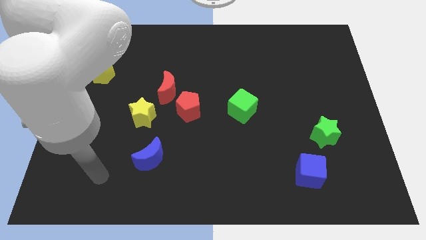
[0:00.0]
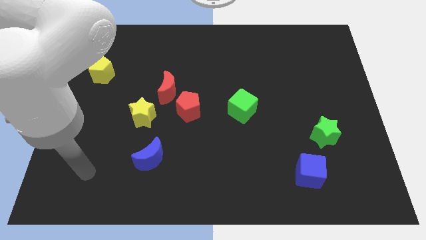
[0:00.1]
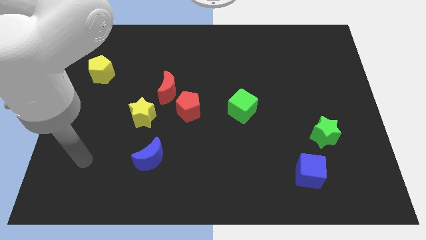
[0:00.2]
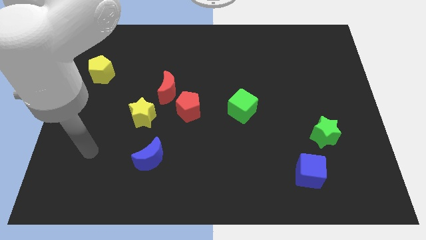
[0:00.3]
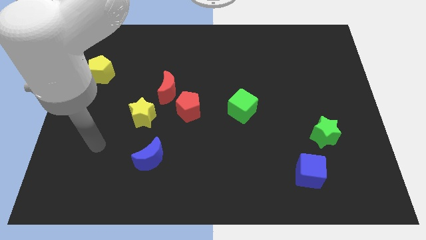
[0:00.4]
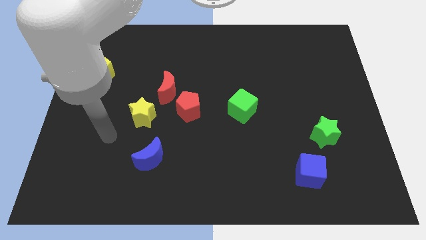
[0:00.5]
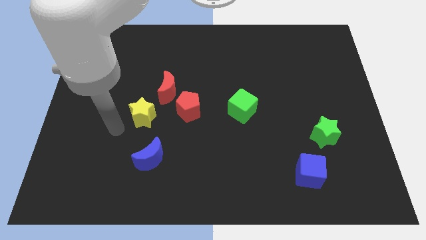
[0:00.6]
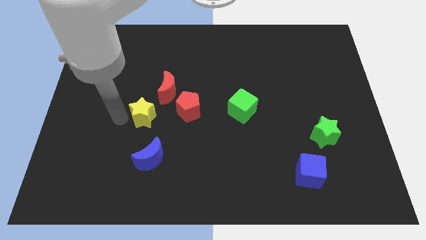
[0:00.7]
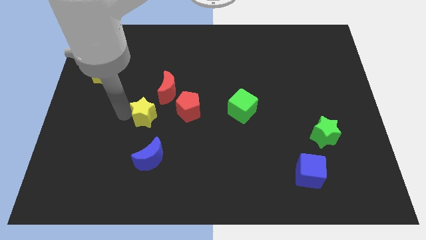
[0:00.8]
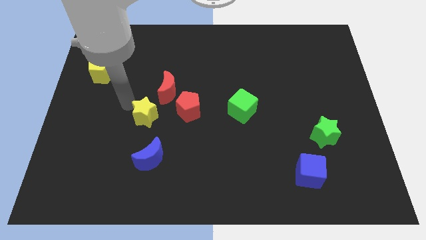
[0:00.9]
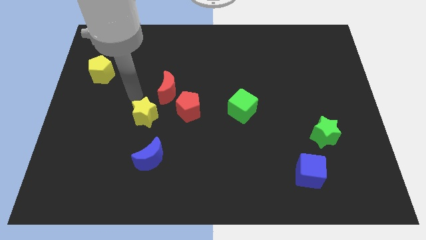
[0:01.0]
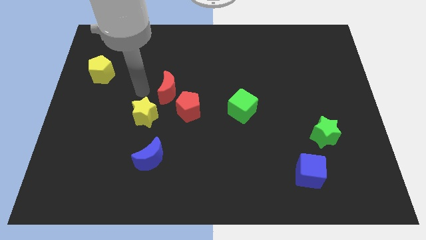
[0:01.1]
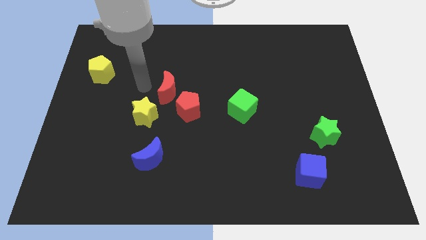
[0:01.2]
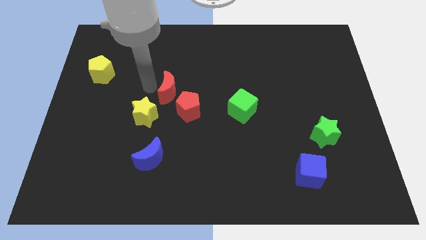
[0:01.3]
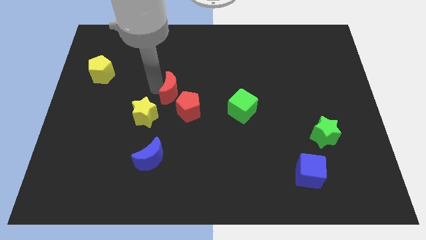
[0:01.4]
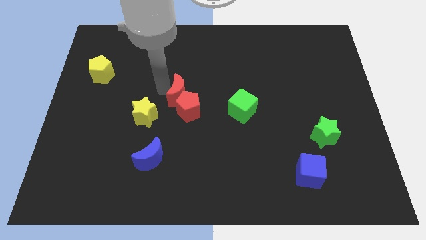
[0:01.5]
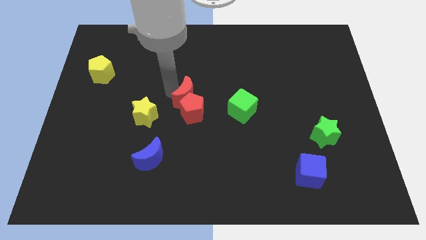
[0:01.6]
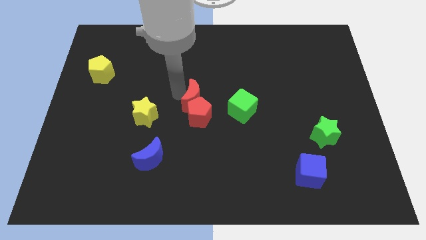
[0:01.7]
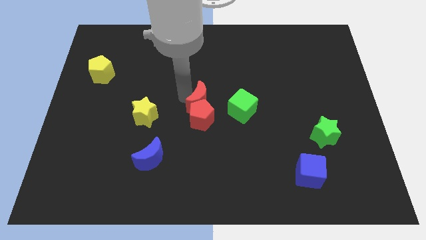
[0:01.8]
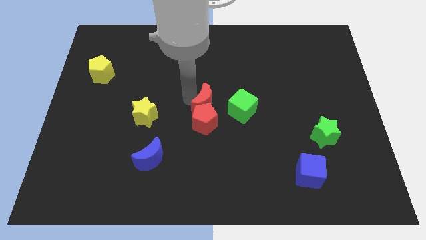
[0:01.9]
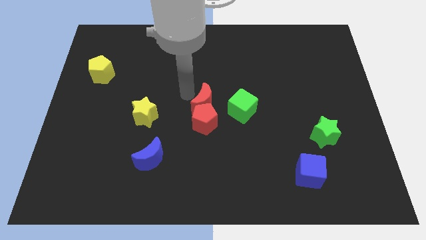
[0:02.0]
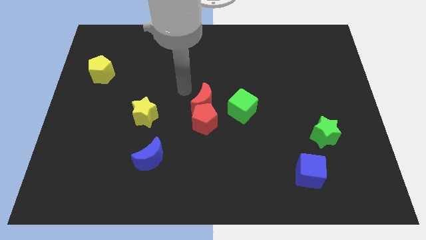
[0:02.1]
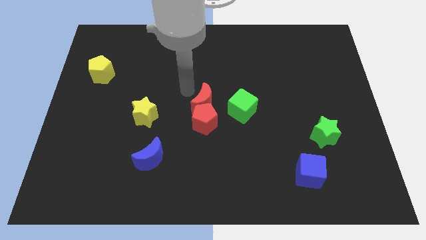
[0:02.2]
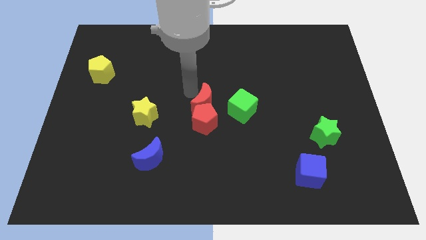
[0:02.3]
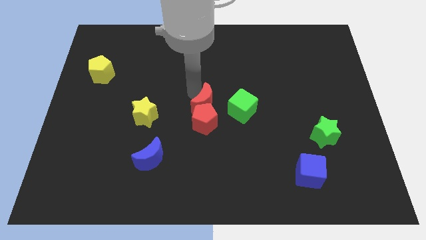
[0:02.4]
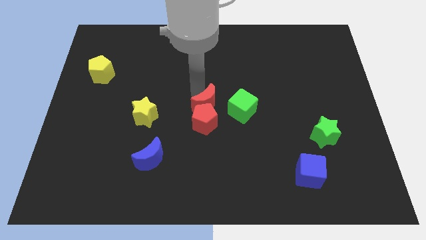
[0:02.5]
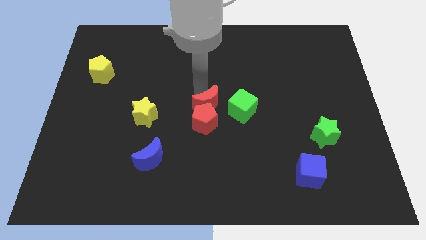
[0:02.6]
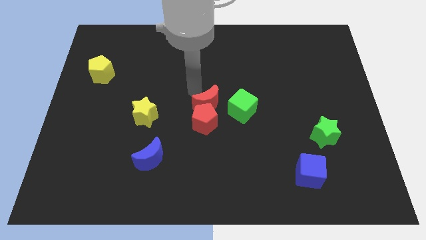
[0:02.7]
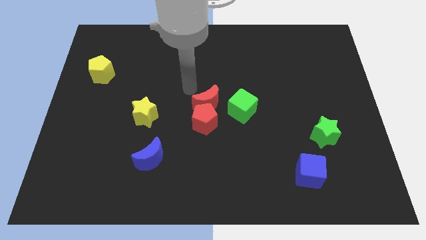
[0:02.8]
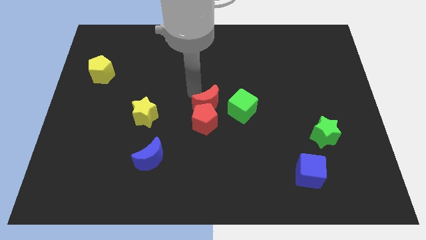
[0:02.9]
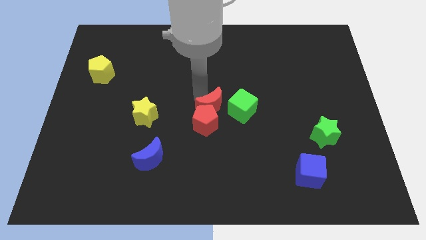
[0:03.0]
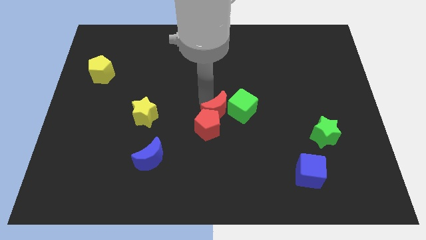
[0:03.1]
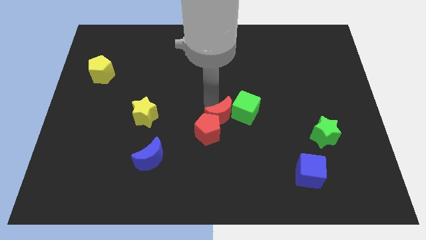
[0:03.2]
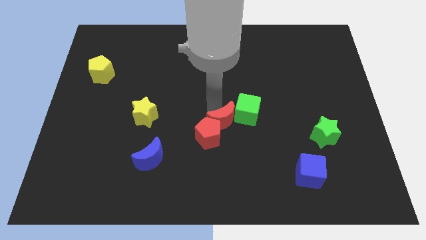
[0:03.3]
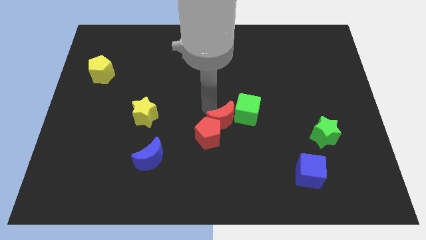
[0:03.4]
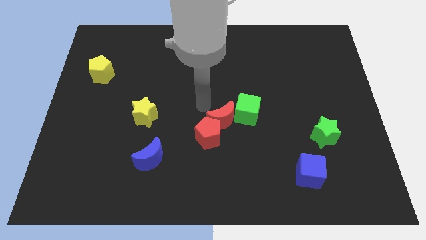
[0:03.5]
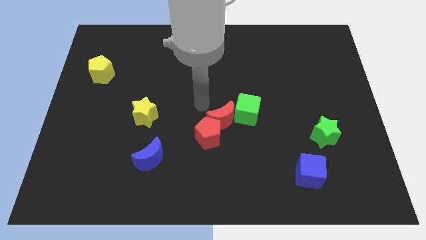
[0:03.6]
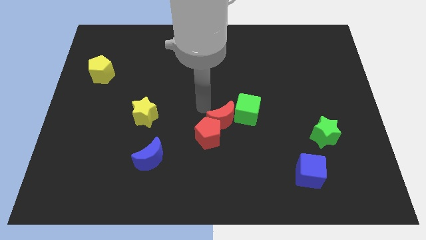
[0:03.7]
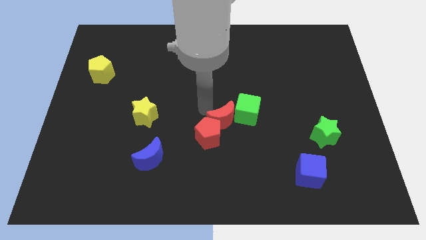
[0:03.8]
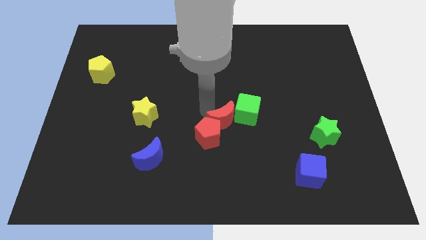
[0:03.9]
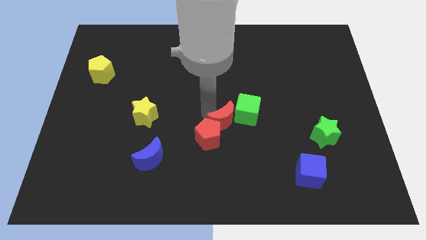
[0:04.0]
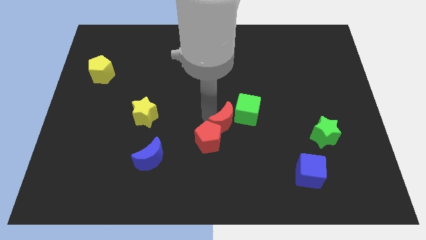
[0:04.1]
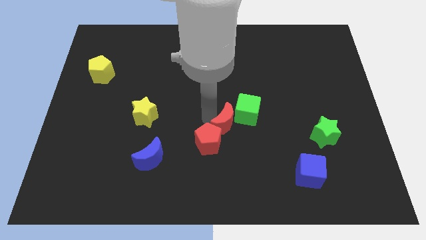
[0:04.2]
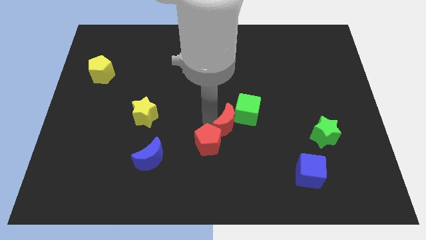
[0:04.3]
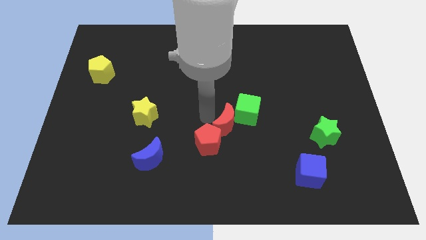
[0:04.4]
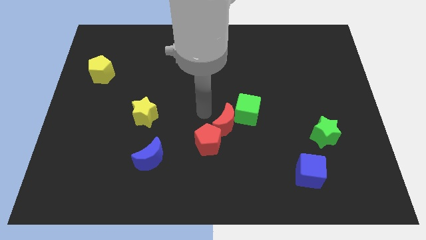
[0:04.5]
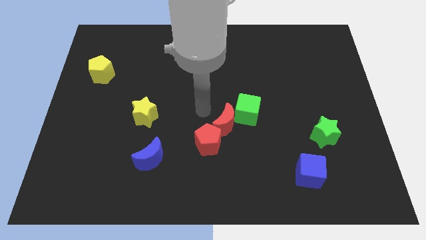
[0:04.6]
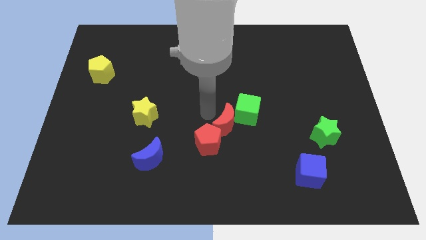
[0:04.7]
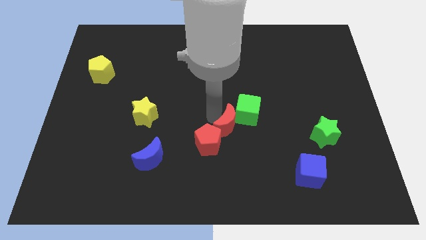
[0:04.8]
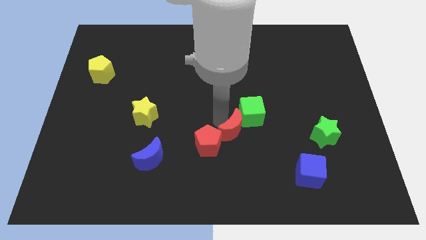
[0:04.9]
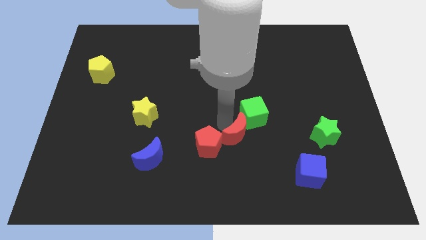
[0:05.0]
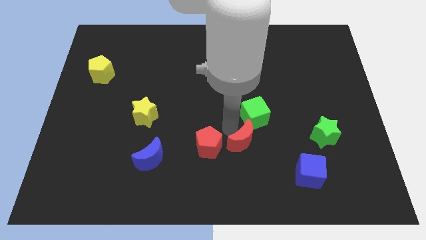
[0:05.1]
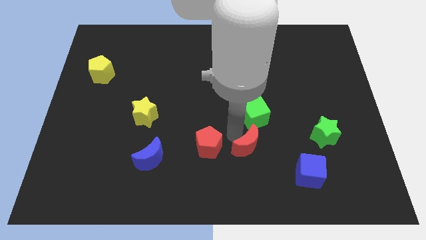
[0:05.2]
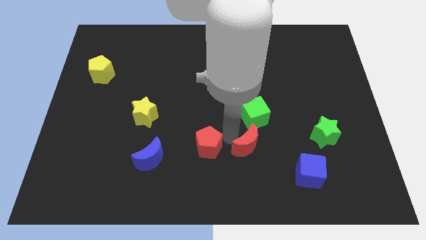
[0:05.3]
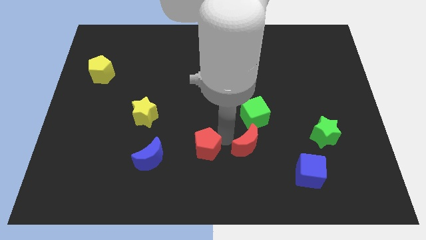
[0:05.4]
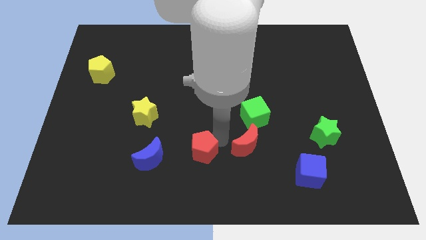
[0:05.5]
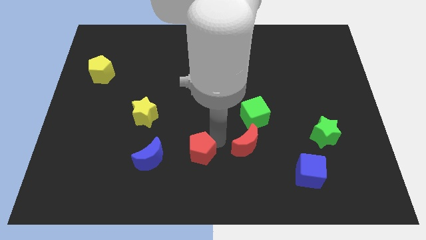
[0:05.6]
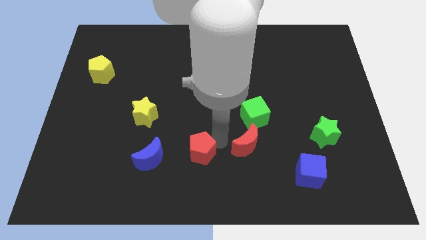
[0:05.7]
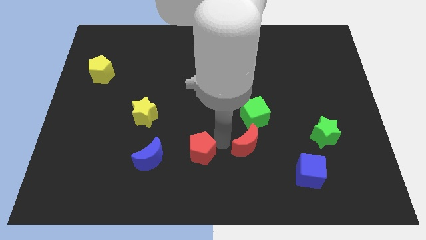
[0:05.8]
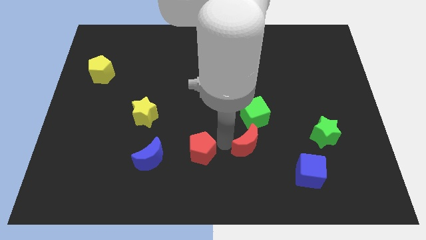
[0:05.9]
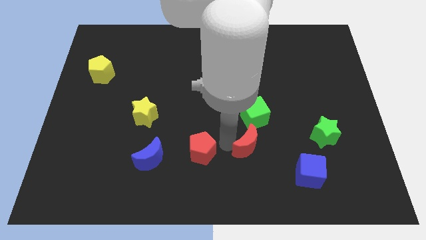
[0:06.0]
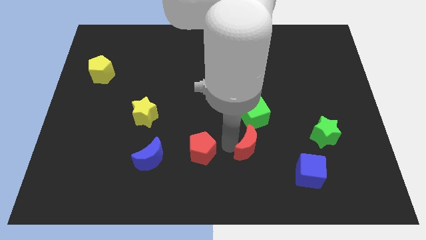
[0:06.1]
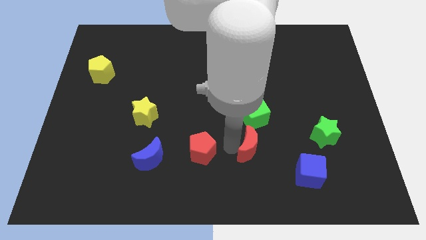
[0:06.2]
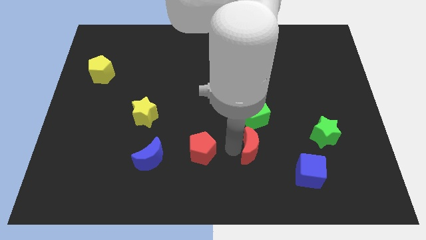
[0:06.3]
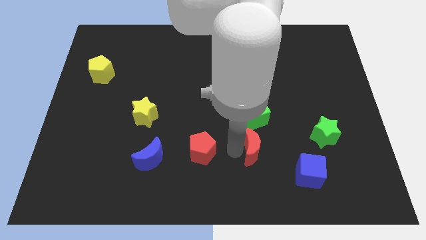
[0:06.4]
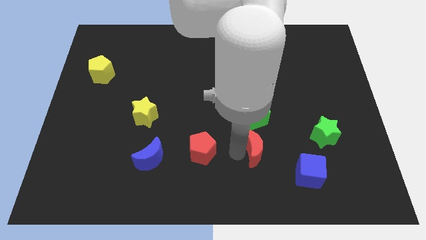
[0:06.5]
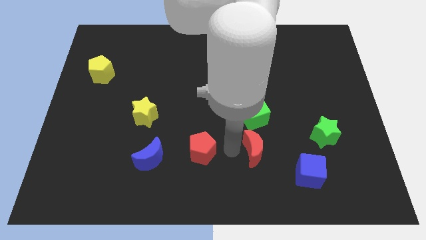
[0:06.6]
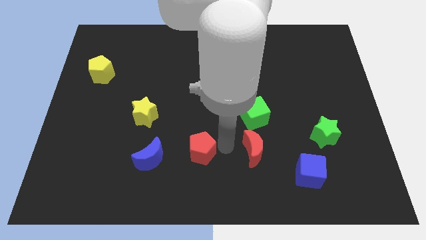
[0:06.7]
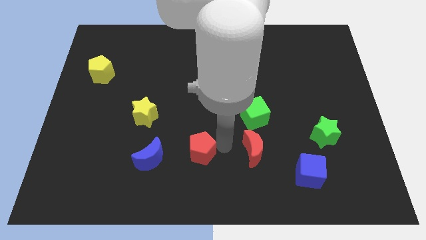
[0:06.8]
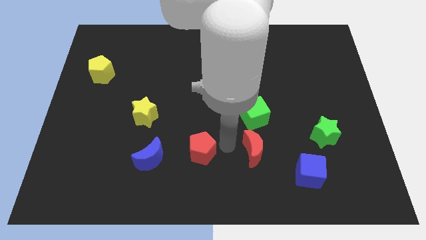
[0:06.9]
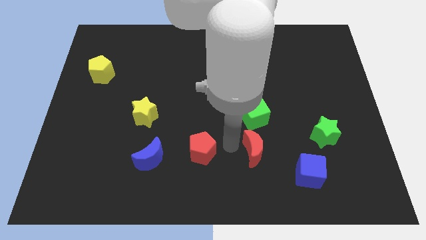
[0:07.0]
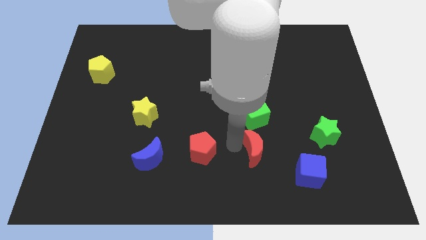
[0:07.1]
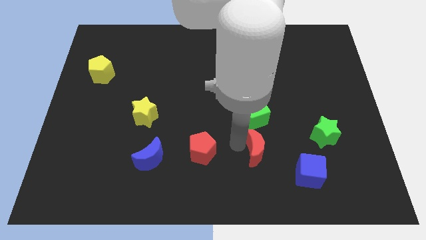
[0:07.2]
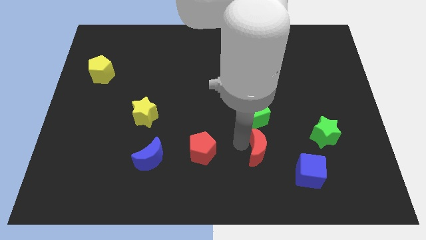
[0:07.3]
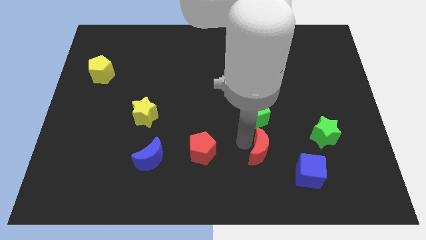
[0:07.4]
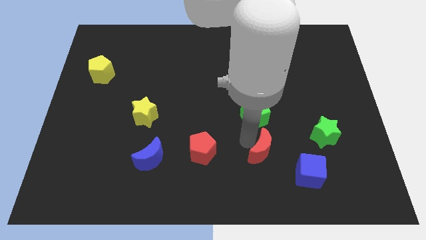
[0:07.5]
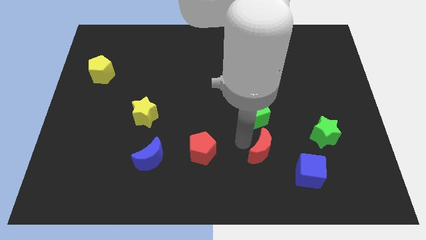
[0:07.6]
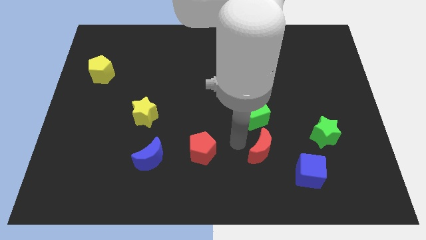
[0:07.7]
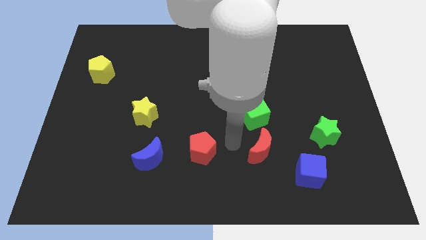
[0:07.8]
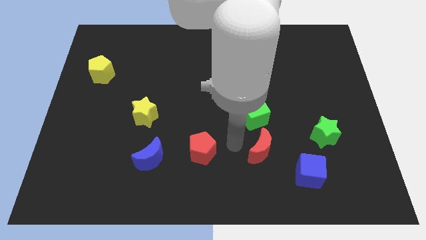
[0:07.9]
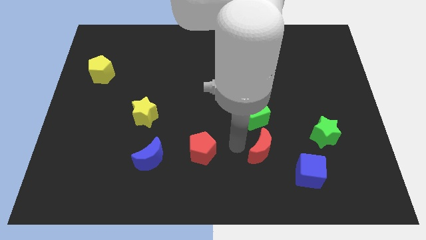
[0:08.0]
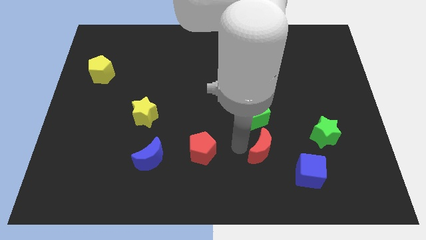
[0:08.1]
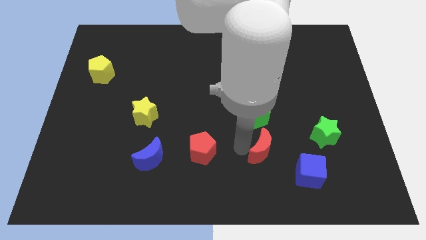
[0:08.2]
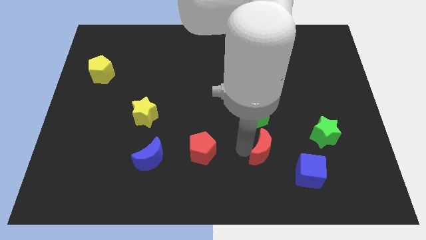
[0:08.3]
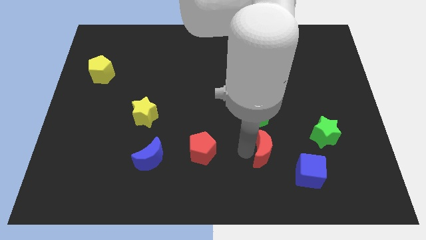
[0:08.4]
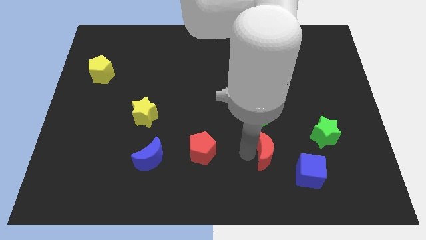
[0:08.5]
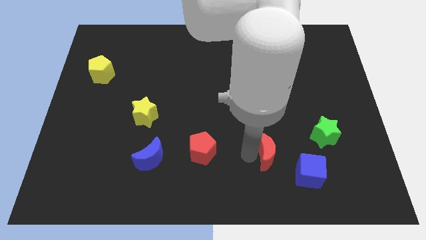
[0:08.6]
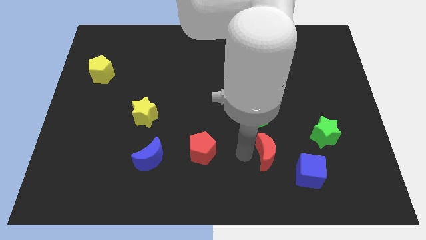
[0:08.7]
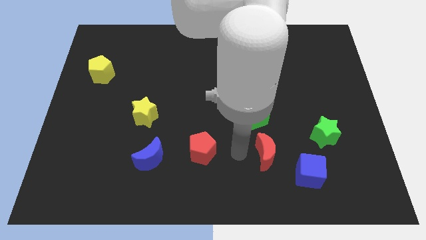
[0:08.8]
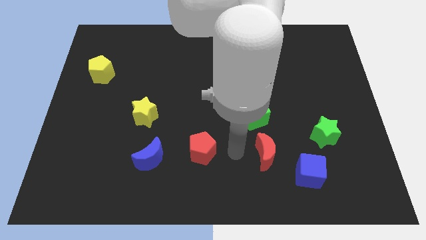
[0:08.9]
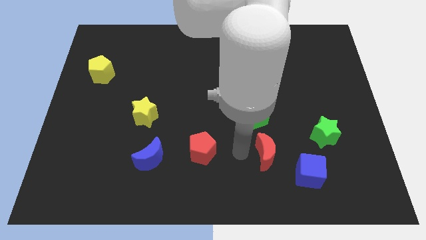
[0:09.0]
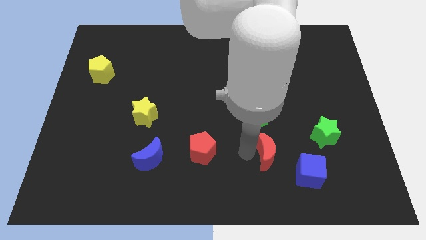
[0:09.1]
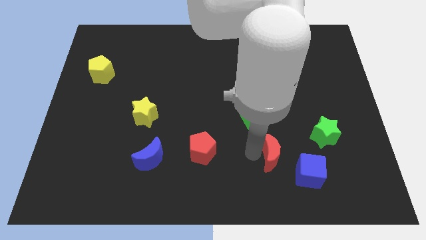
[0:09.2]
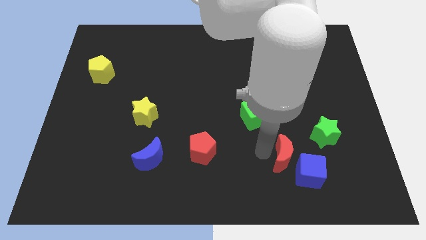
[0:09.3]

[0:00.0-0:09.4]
move the red moon close to the blue cube
